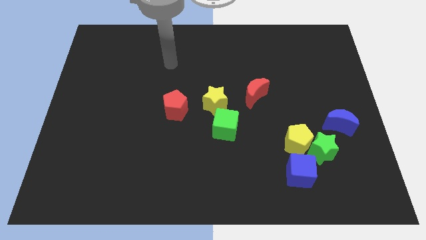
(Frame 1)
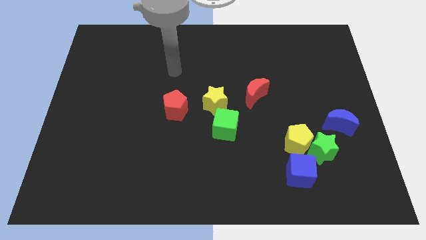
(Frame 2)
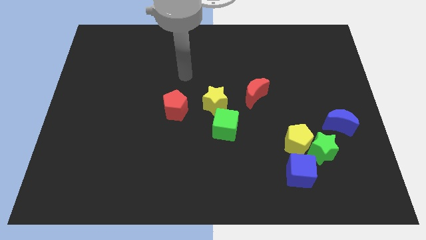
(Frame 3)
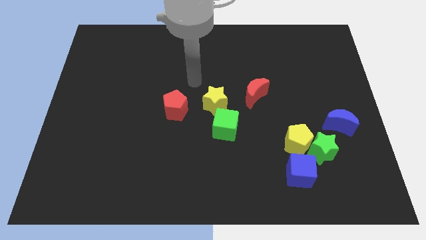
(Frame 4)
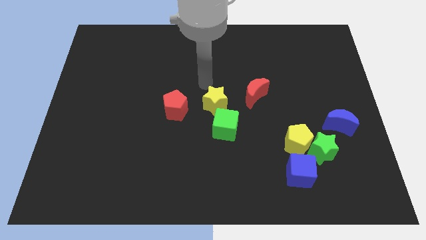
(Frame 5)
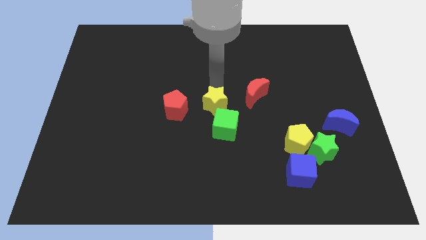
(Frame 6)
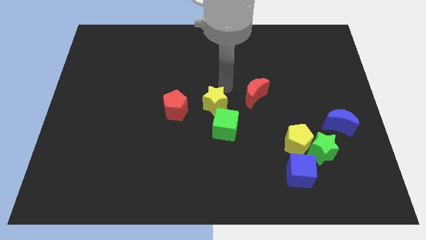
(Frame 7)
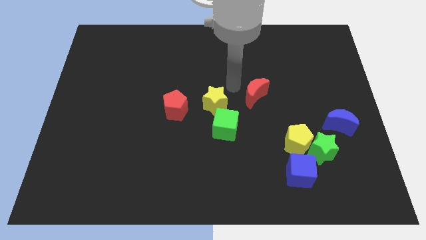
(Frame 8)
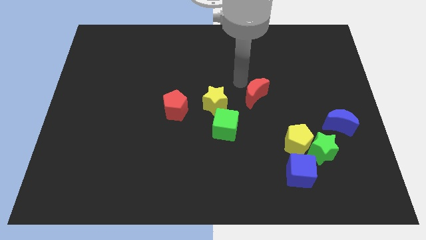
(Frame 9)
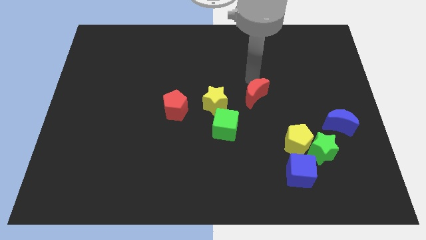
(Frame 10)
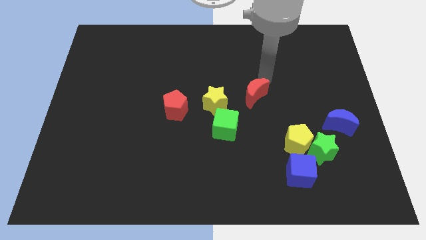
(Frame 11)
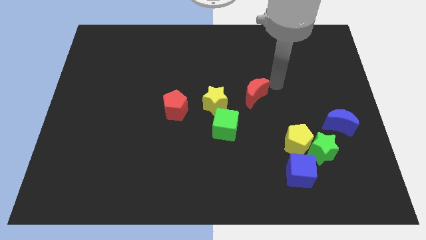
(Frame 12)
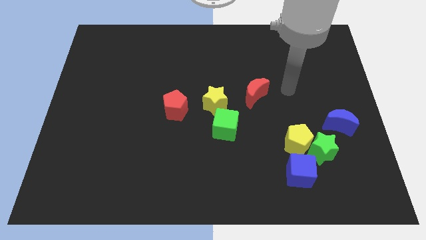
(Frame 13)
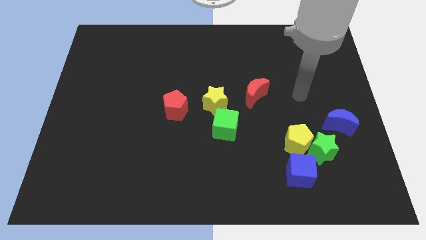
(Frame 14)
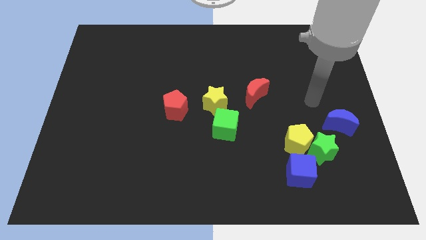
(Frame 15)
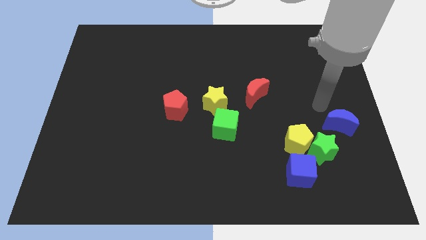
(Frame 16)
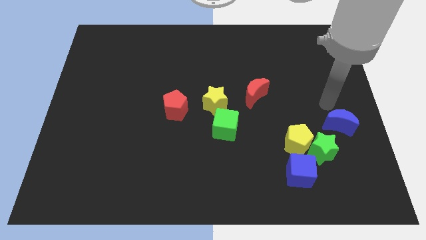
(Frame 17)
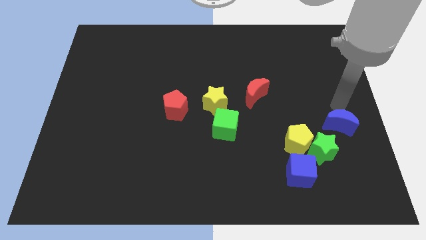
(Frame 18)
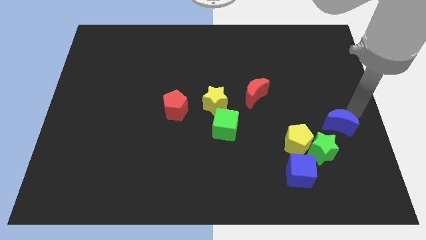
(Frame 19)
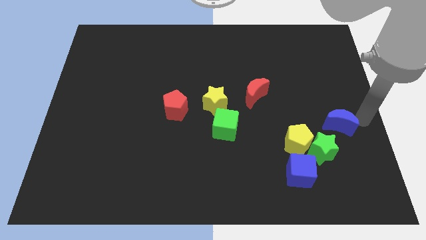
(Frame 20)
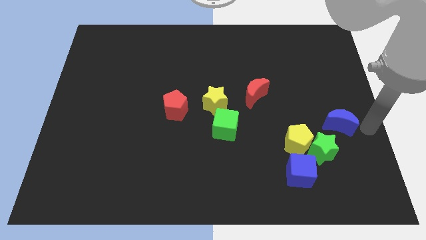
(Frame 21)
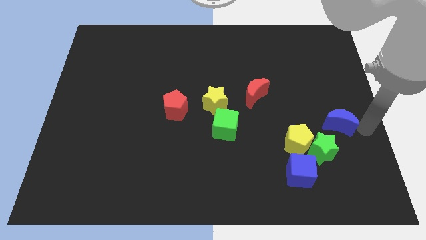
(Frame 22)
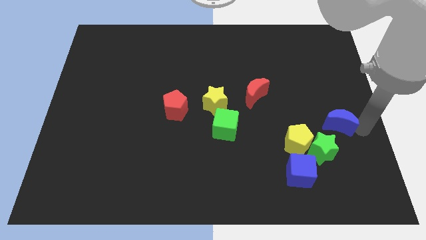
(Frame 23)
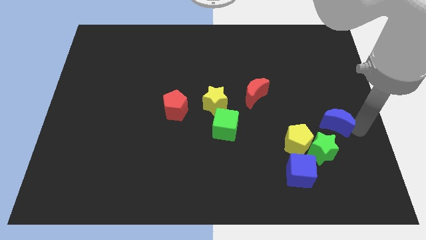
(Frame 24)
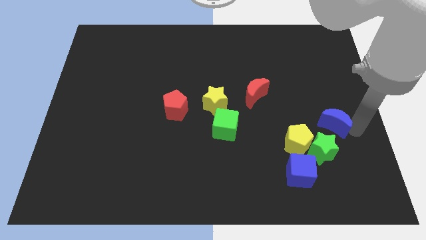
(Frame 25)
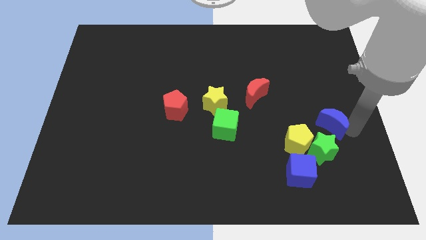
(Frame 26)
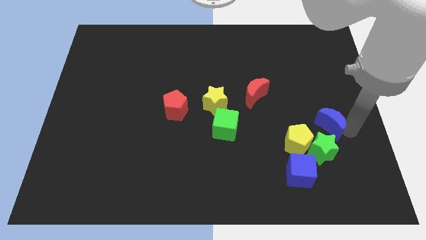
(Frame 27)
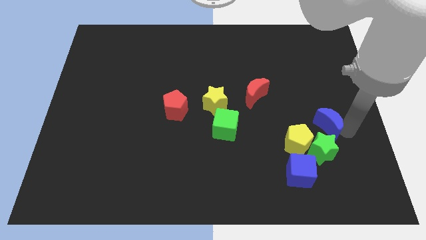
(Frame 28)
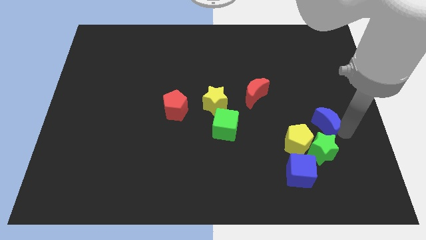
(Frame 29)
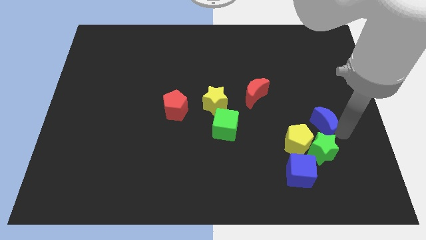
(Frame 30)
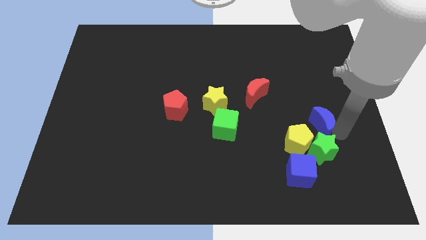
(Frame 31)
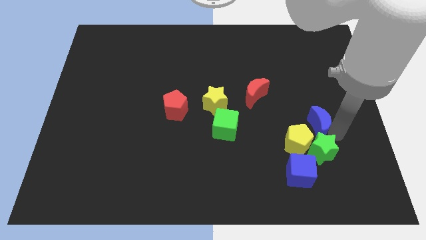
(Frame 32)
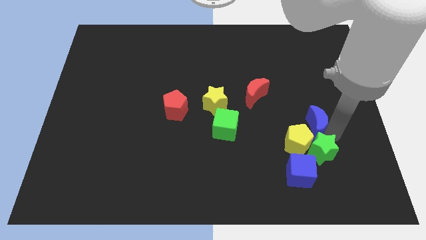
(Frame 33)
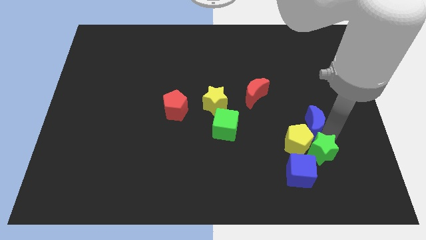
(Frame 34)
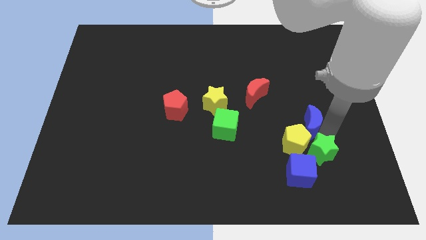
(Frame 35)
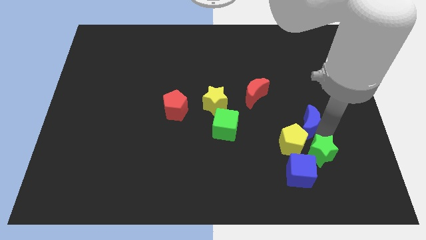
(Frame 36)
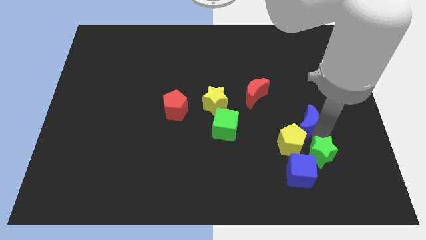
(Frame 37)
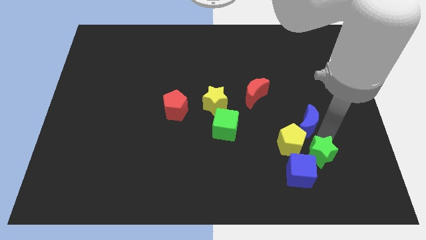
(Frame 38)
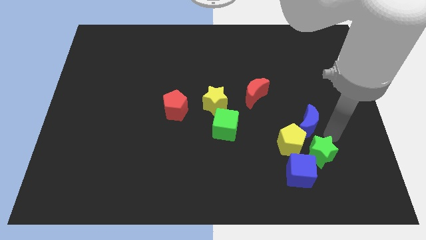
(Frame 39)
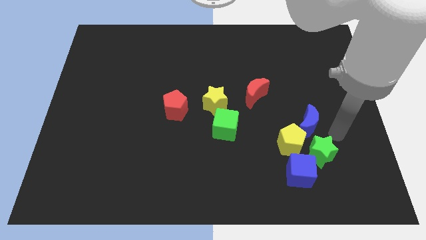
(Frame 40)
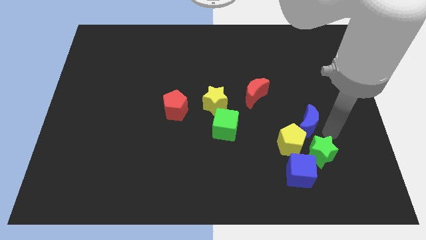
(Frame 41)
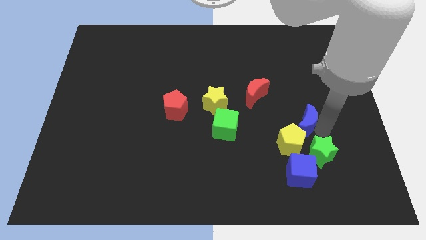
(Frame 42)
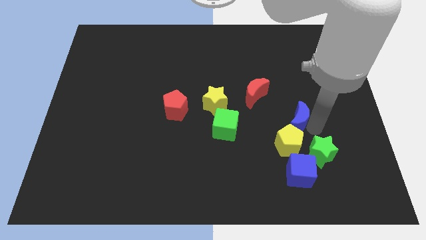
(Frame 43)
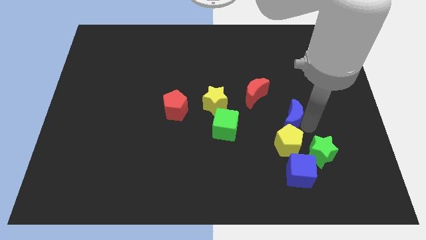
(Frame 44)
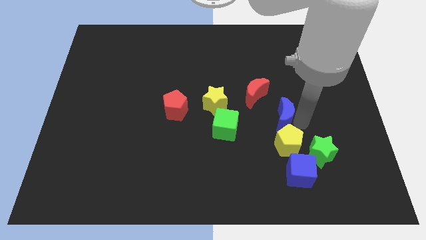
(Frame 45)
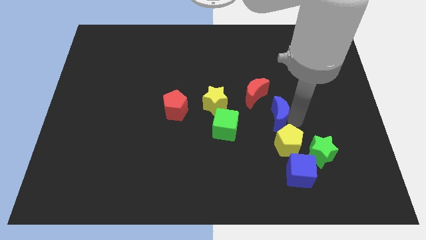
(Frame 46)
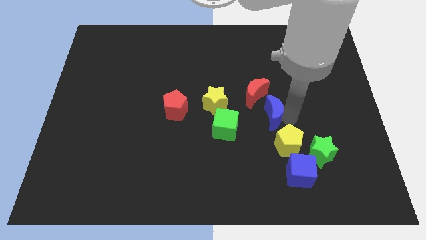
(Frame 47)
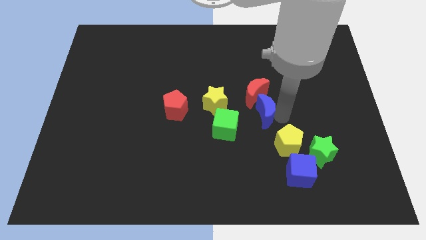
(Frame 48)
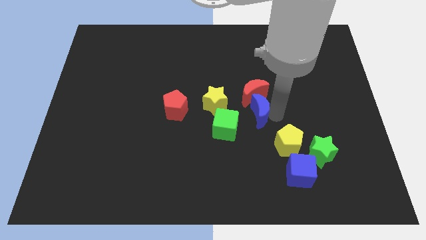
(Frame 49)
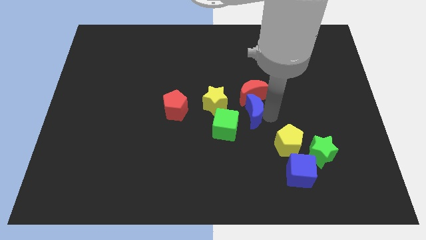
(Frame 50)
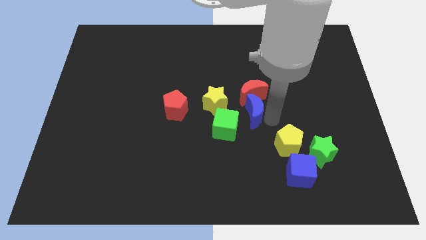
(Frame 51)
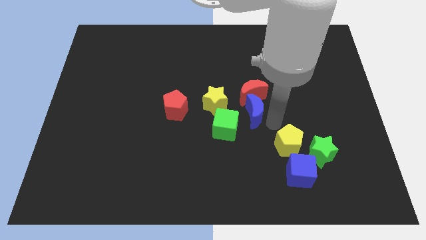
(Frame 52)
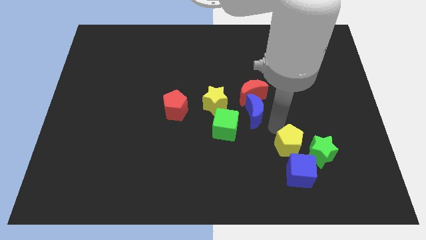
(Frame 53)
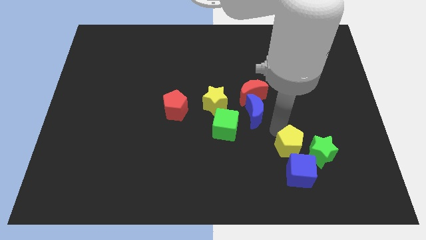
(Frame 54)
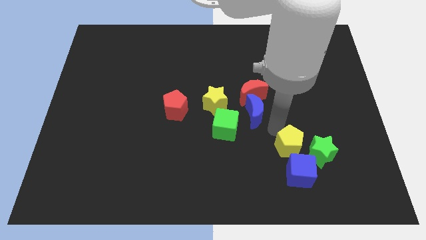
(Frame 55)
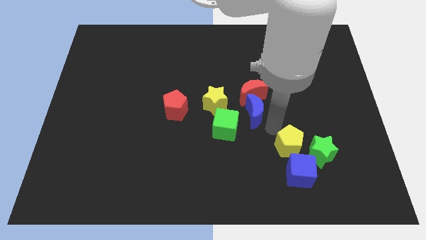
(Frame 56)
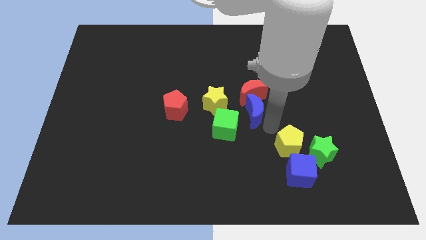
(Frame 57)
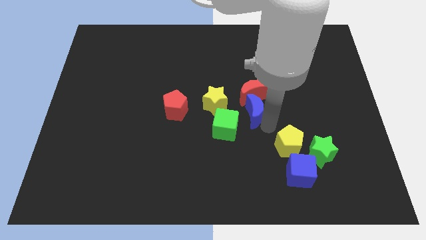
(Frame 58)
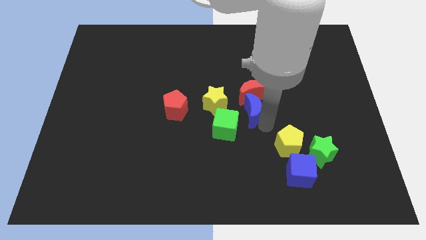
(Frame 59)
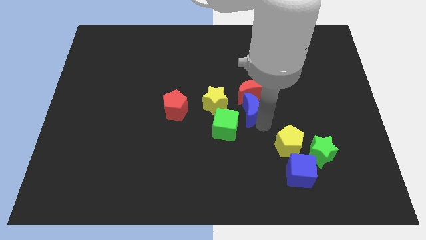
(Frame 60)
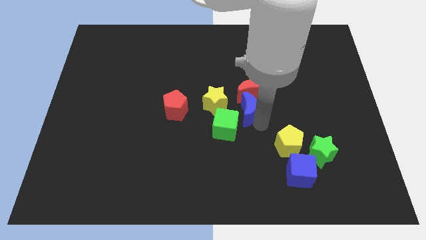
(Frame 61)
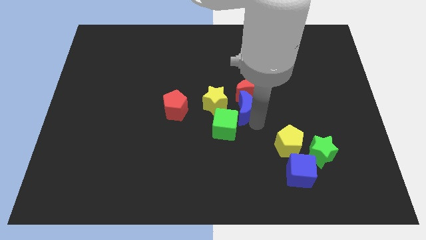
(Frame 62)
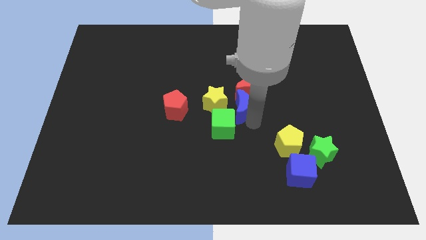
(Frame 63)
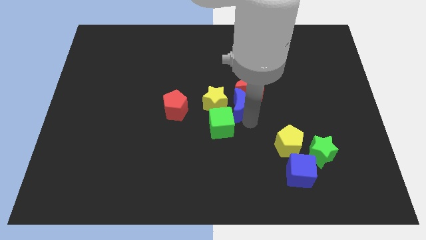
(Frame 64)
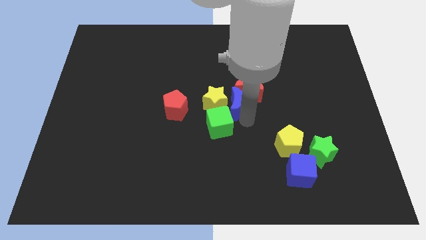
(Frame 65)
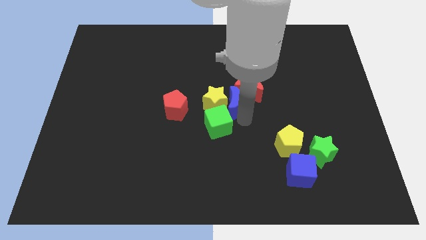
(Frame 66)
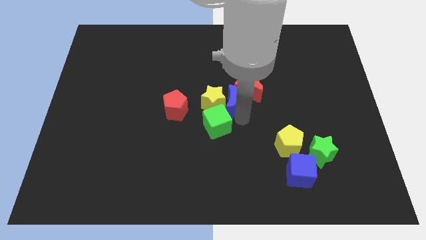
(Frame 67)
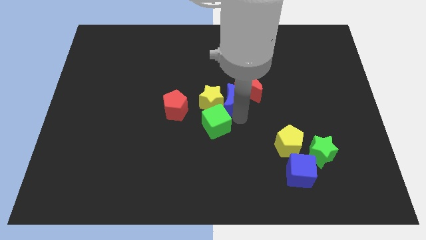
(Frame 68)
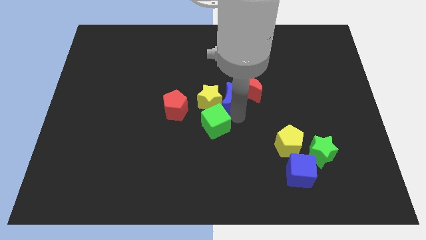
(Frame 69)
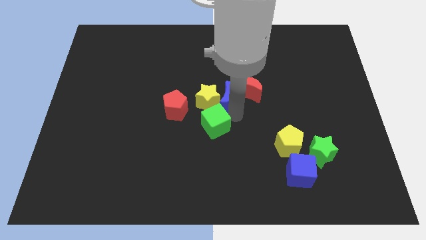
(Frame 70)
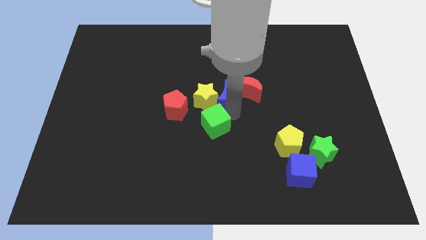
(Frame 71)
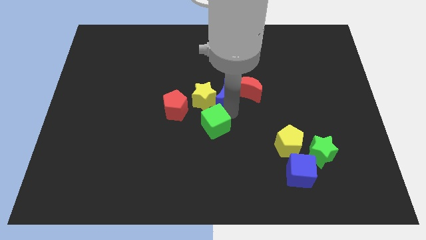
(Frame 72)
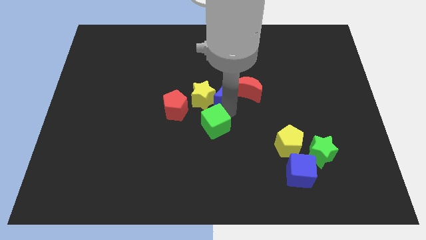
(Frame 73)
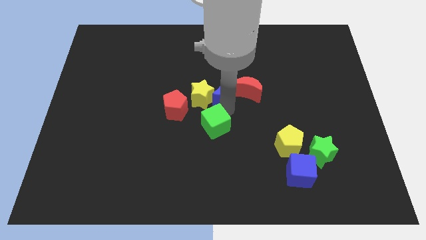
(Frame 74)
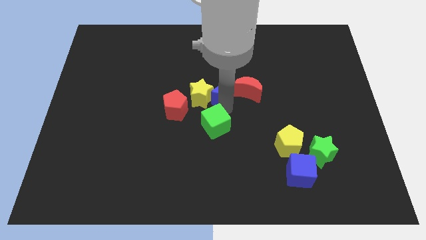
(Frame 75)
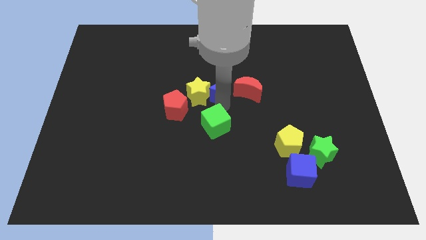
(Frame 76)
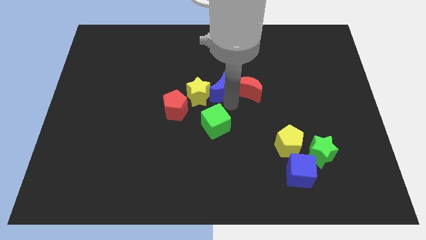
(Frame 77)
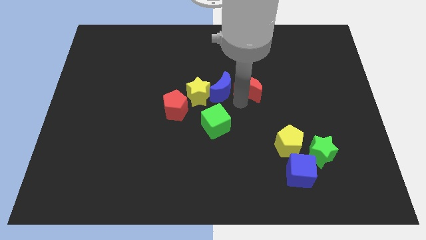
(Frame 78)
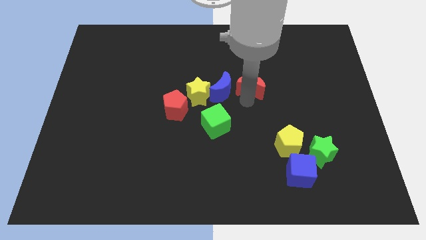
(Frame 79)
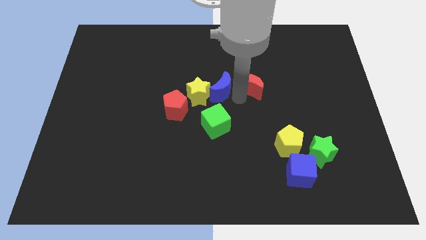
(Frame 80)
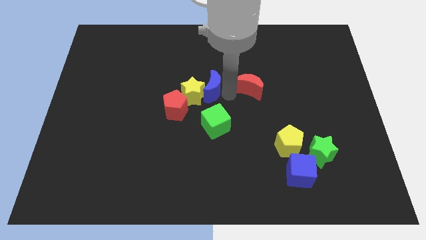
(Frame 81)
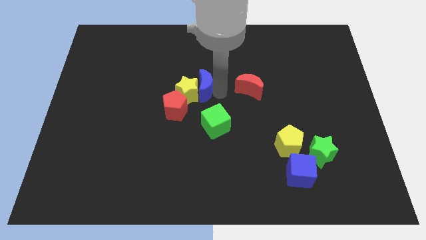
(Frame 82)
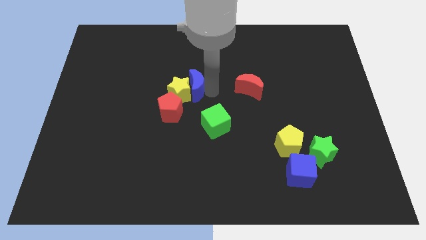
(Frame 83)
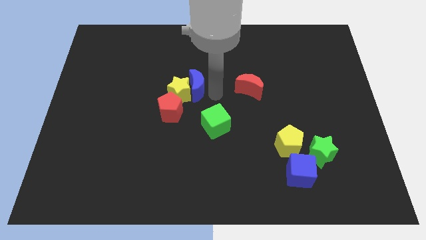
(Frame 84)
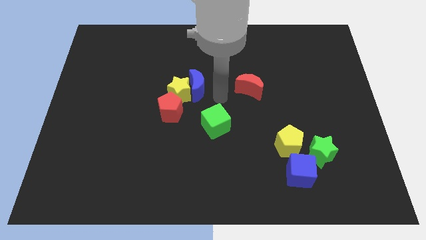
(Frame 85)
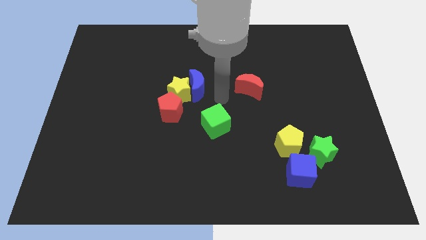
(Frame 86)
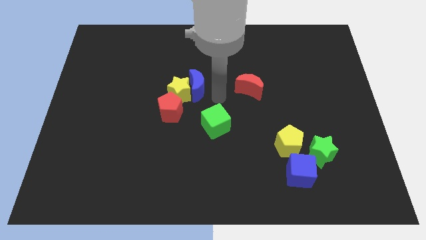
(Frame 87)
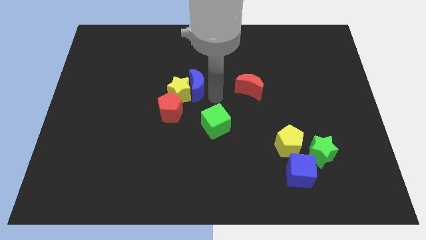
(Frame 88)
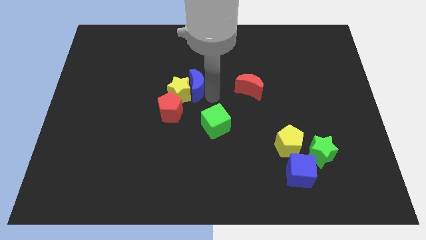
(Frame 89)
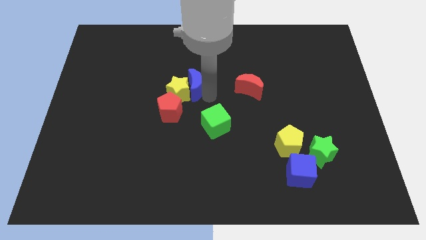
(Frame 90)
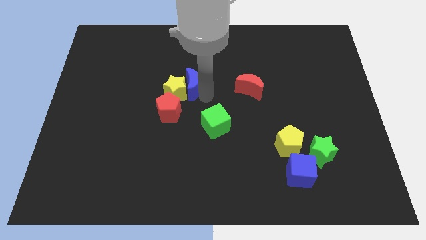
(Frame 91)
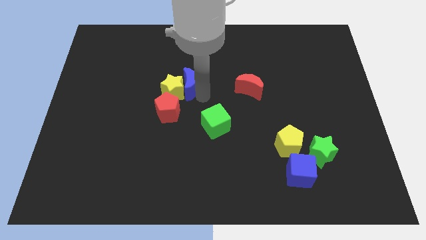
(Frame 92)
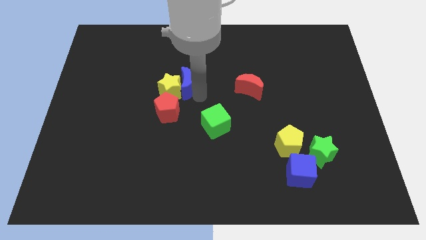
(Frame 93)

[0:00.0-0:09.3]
move the blue moon above the red pentagon
